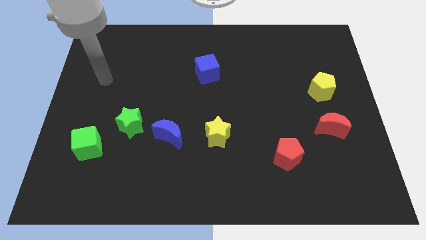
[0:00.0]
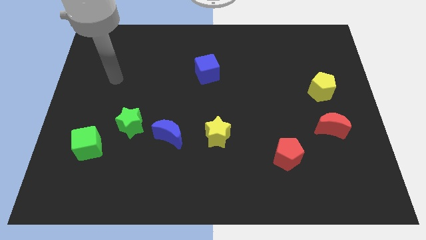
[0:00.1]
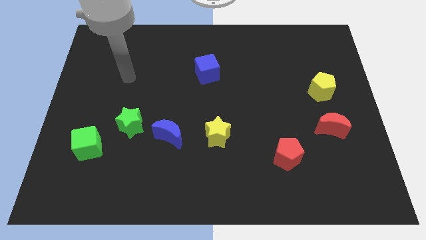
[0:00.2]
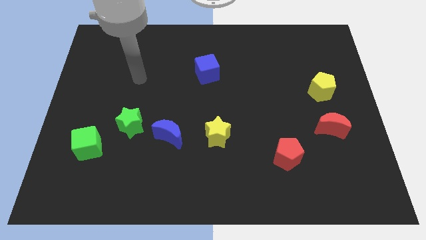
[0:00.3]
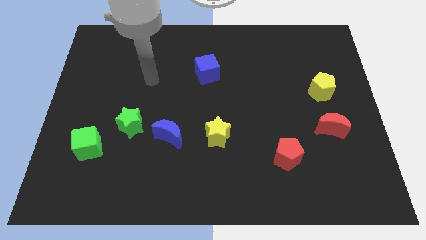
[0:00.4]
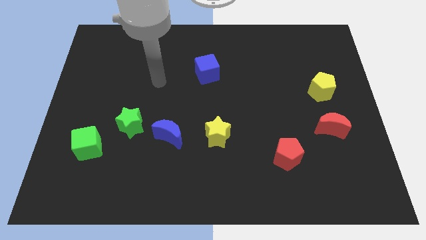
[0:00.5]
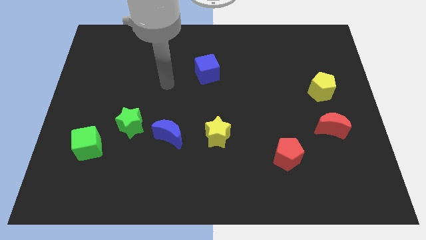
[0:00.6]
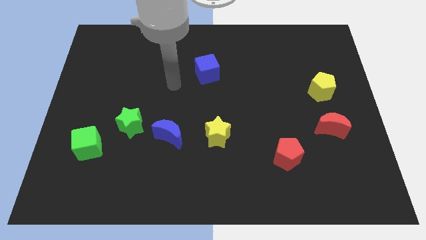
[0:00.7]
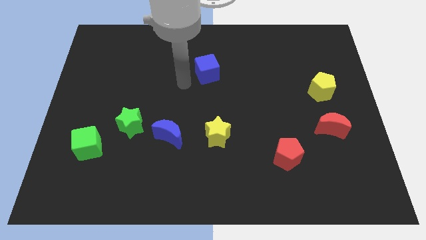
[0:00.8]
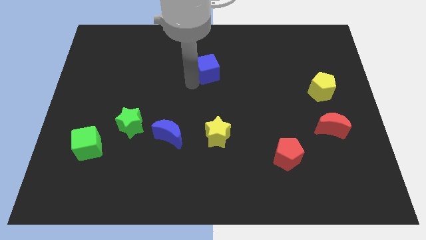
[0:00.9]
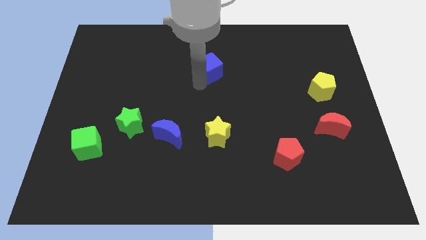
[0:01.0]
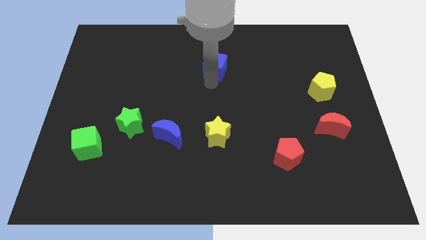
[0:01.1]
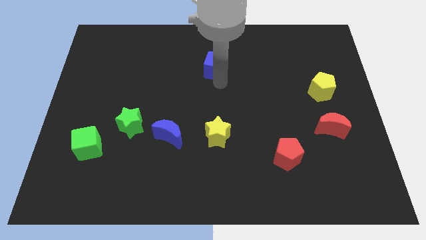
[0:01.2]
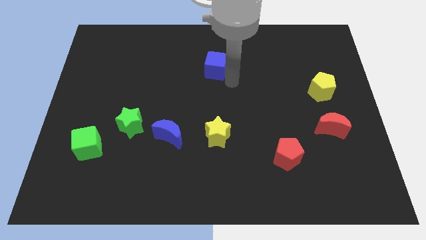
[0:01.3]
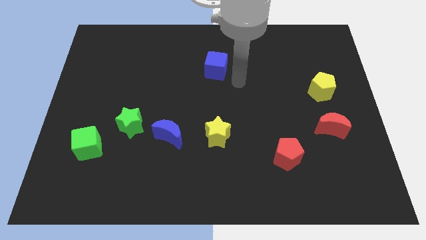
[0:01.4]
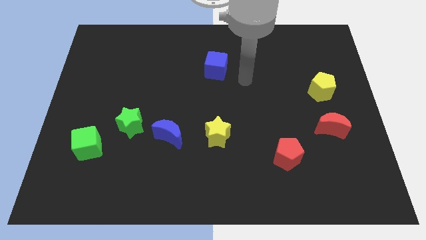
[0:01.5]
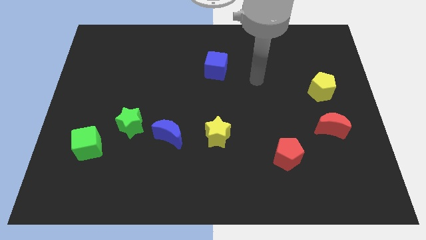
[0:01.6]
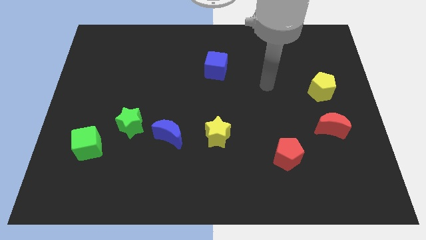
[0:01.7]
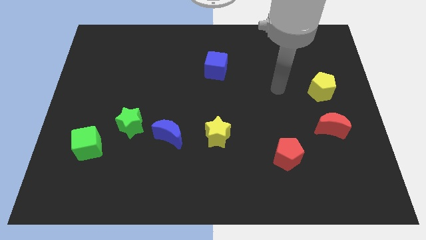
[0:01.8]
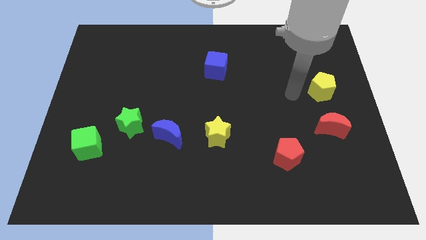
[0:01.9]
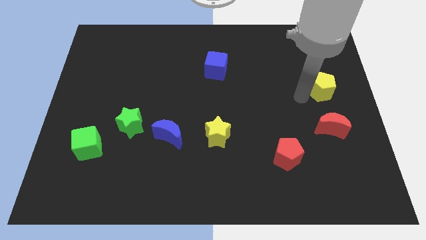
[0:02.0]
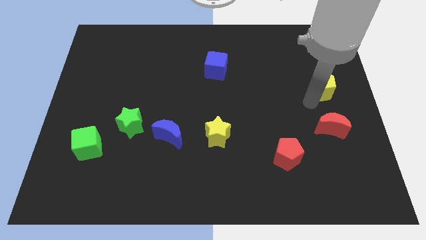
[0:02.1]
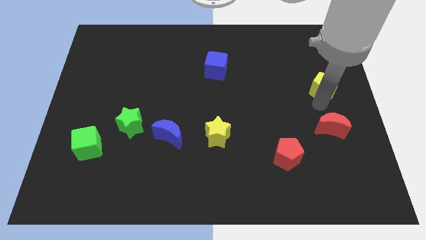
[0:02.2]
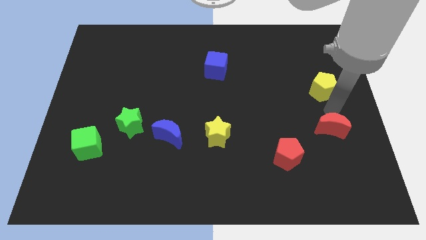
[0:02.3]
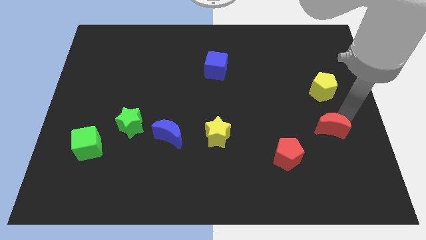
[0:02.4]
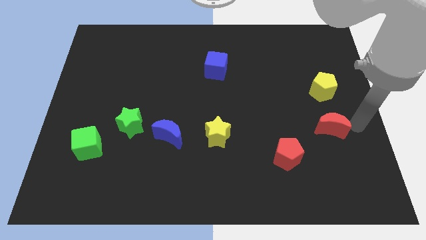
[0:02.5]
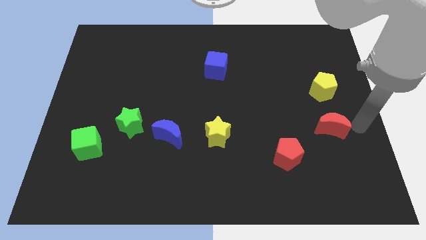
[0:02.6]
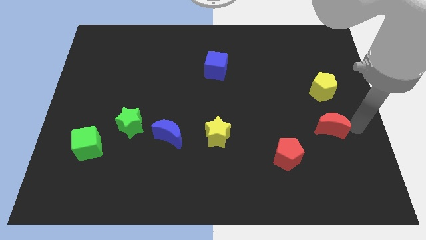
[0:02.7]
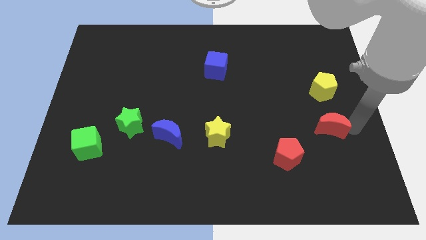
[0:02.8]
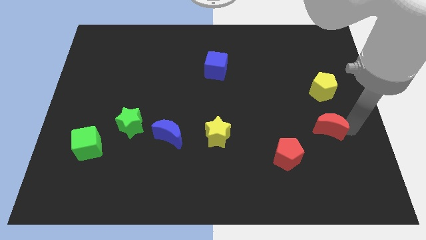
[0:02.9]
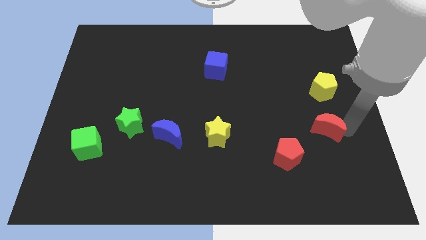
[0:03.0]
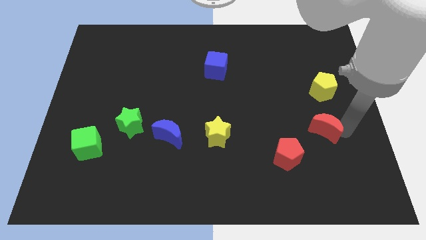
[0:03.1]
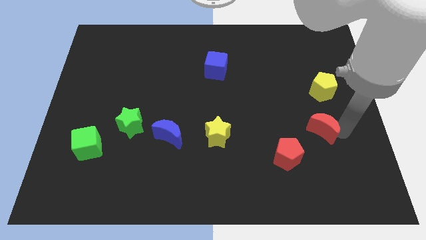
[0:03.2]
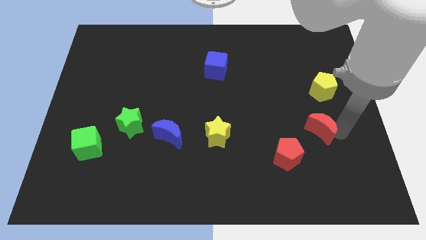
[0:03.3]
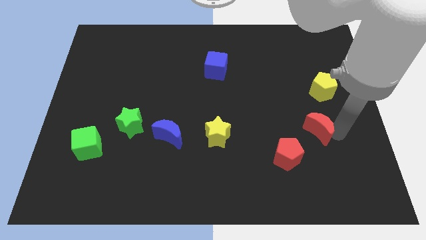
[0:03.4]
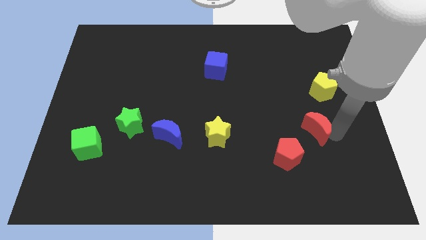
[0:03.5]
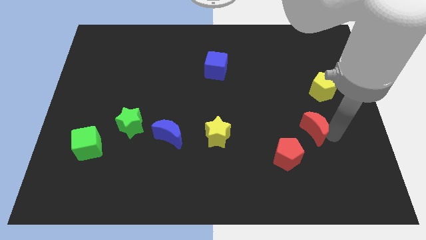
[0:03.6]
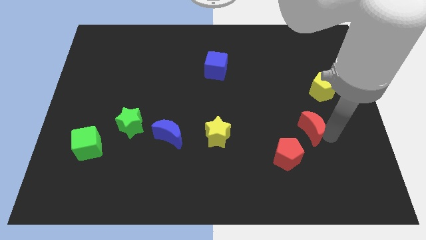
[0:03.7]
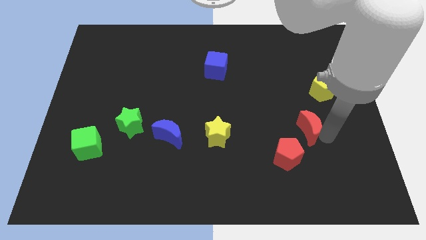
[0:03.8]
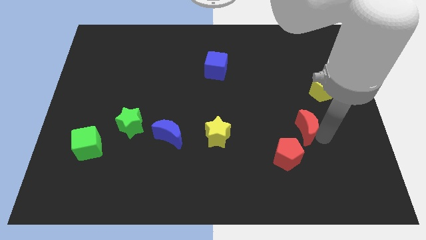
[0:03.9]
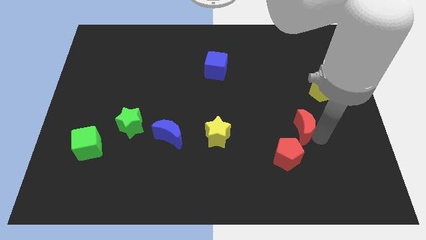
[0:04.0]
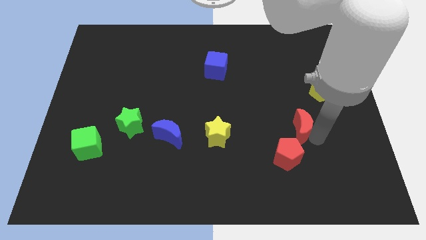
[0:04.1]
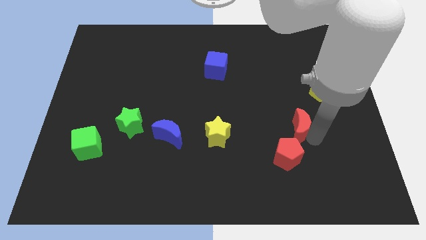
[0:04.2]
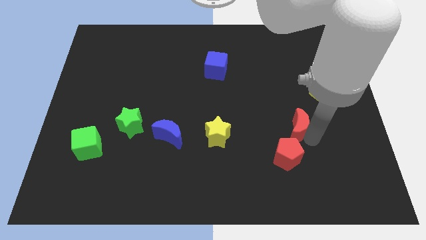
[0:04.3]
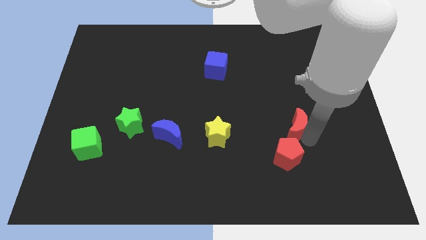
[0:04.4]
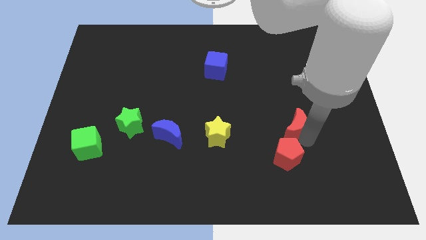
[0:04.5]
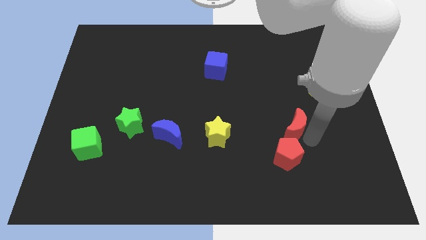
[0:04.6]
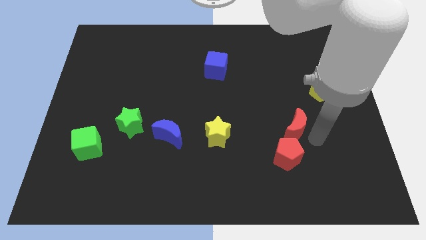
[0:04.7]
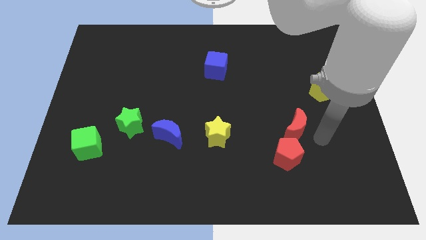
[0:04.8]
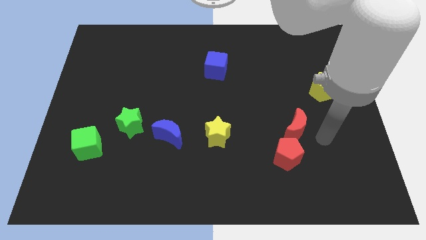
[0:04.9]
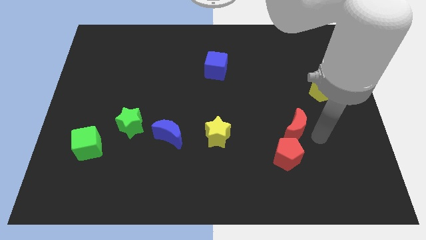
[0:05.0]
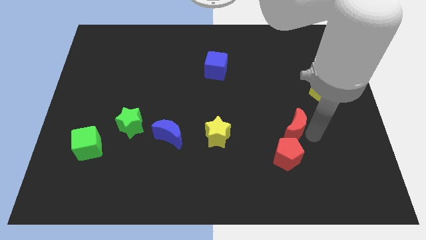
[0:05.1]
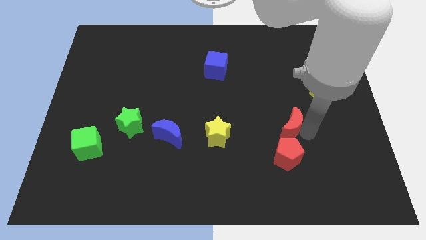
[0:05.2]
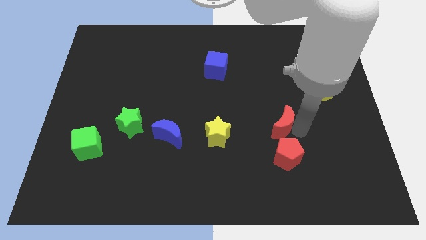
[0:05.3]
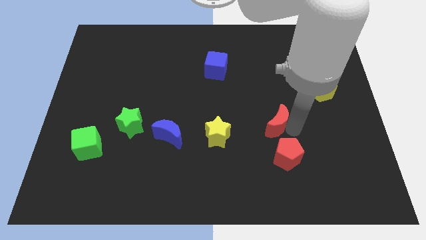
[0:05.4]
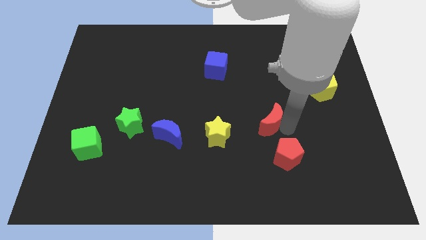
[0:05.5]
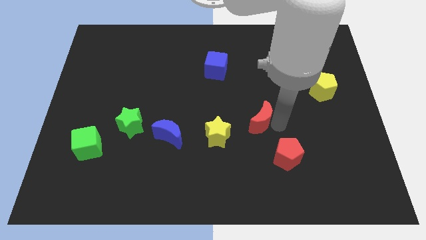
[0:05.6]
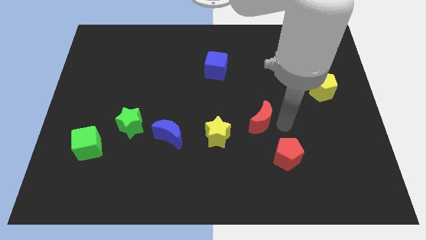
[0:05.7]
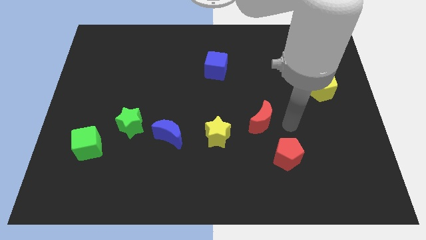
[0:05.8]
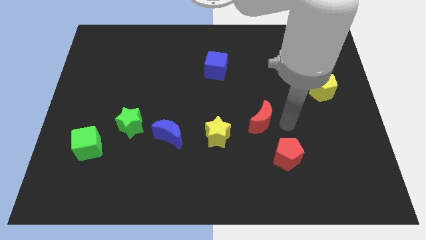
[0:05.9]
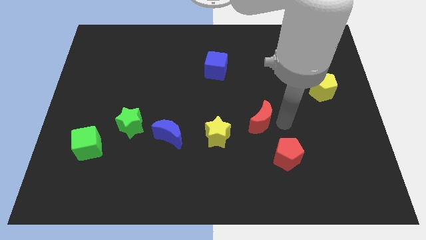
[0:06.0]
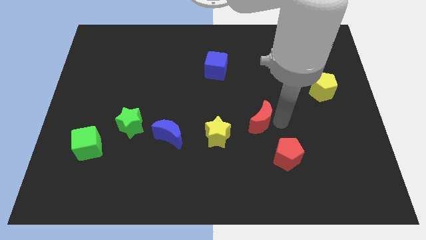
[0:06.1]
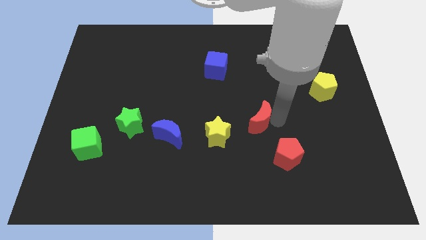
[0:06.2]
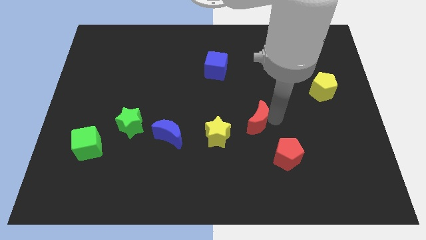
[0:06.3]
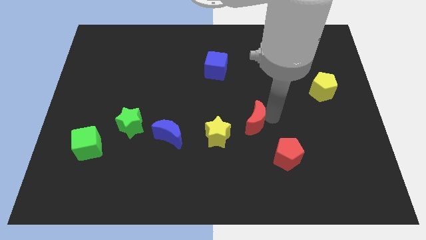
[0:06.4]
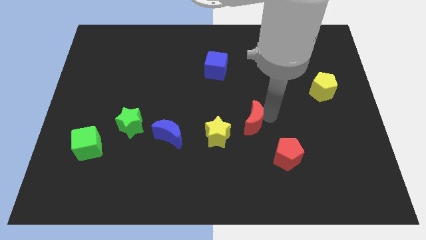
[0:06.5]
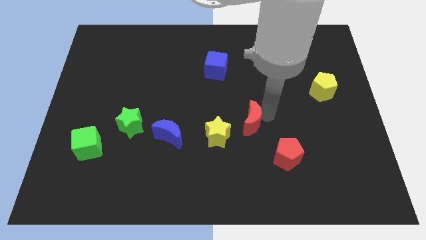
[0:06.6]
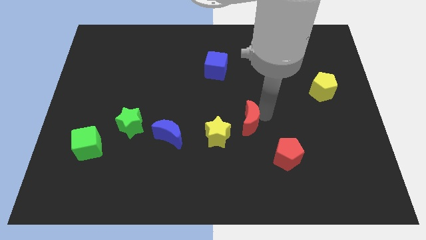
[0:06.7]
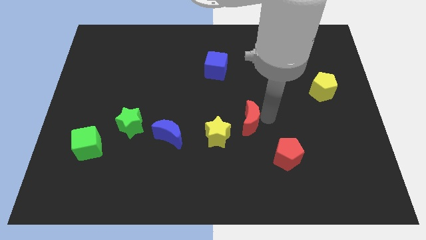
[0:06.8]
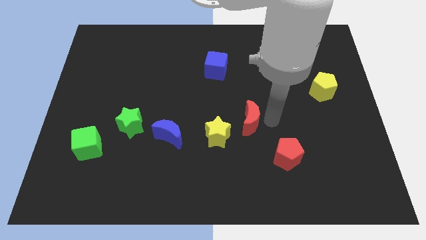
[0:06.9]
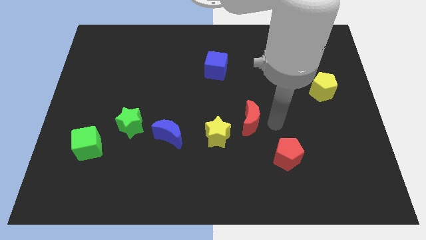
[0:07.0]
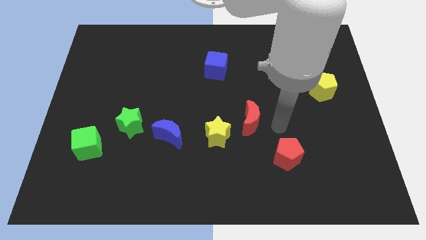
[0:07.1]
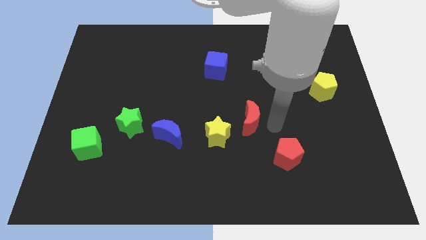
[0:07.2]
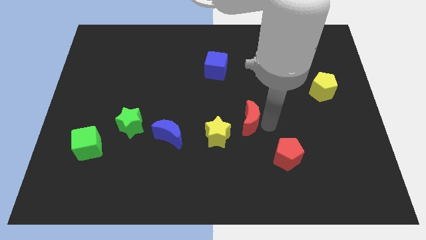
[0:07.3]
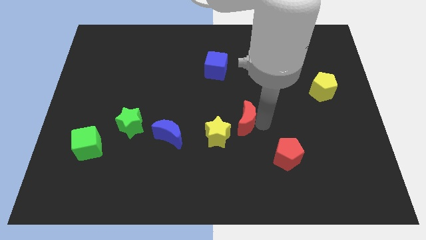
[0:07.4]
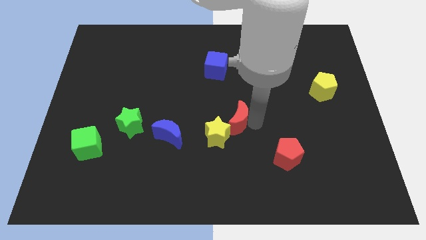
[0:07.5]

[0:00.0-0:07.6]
slide the red moon to the left

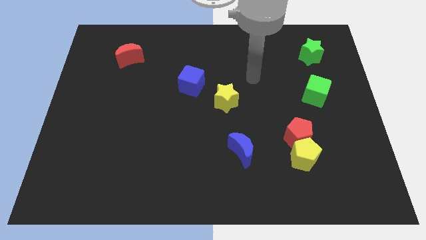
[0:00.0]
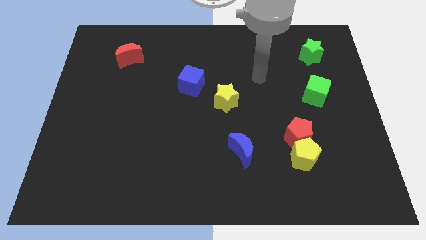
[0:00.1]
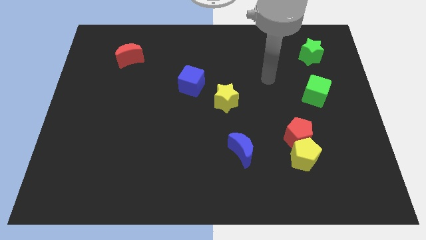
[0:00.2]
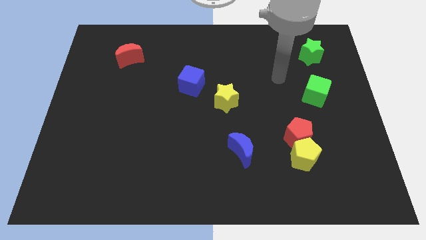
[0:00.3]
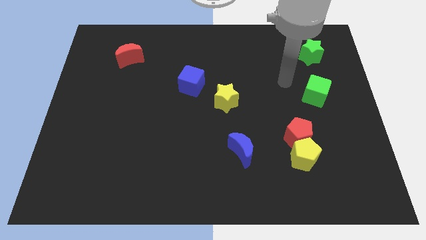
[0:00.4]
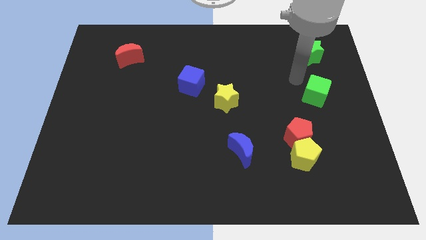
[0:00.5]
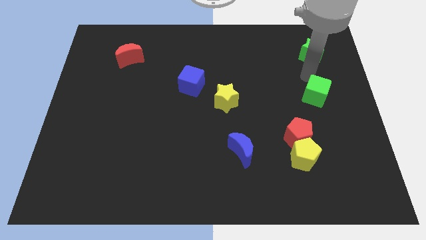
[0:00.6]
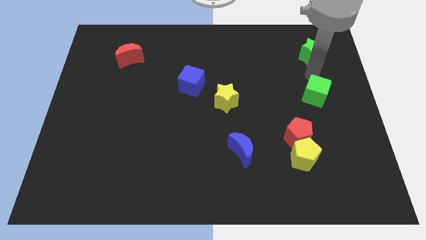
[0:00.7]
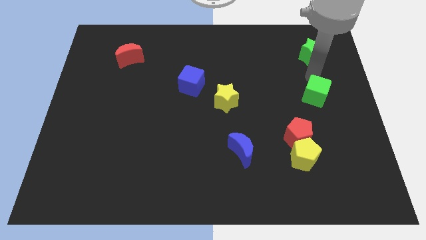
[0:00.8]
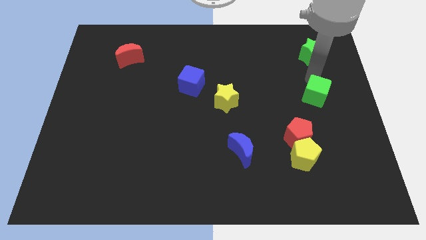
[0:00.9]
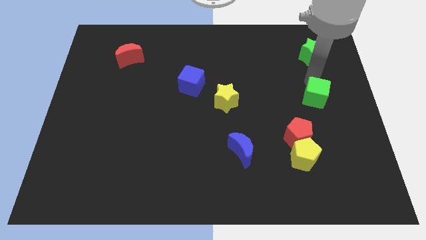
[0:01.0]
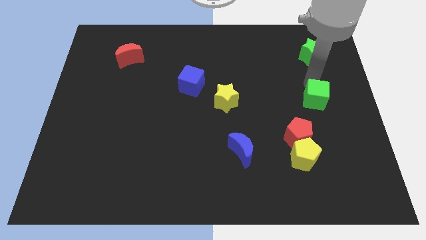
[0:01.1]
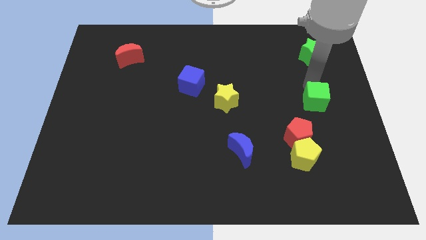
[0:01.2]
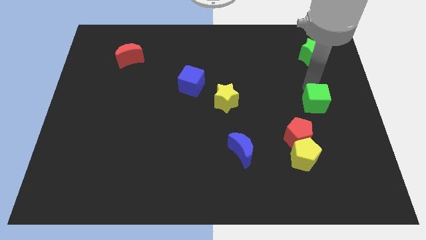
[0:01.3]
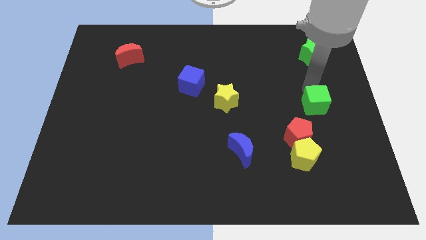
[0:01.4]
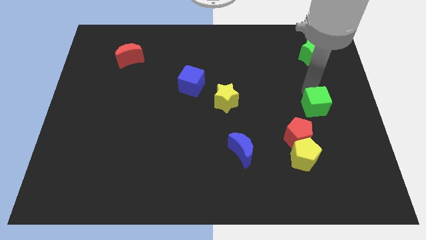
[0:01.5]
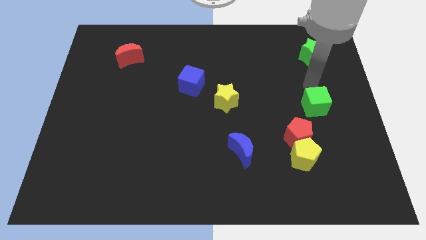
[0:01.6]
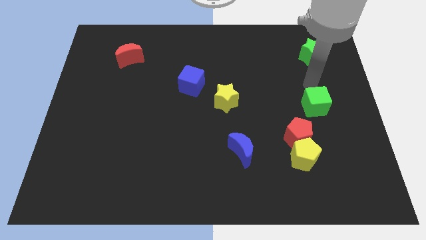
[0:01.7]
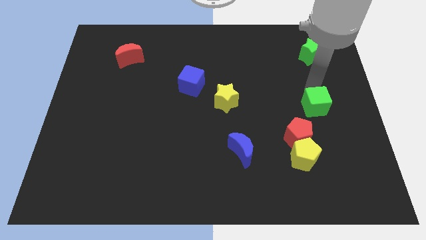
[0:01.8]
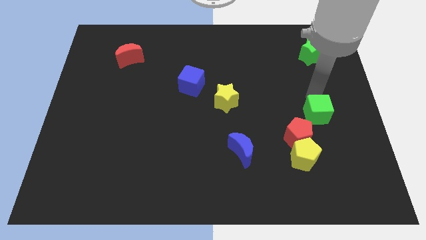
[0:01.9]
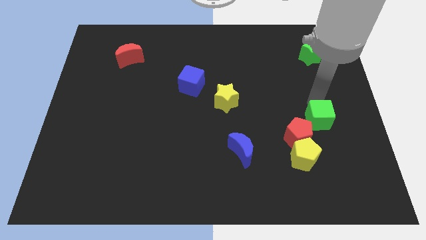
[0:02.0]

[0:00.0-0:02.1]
move the green cube a bit downwards
